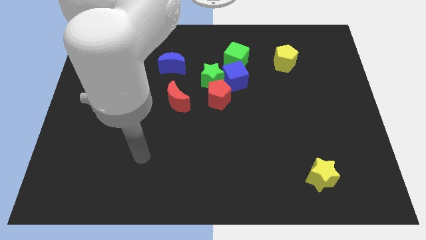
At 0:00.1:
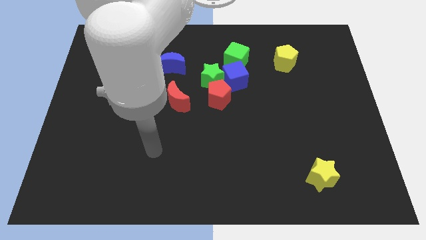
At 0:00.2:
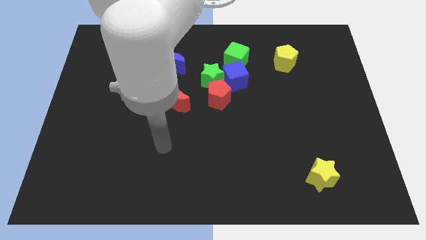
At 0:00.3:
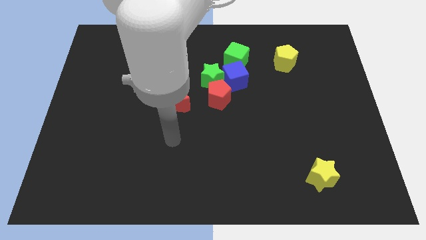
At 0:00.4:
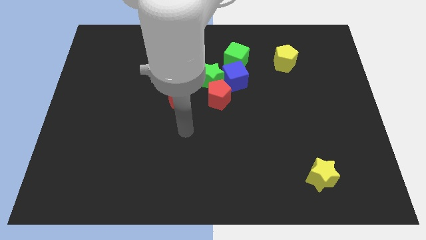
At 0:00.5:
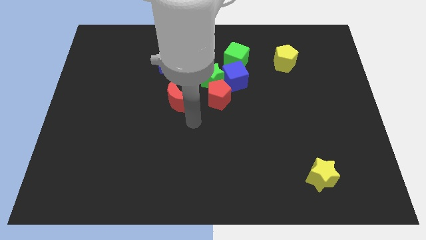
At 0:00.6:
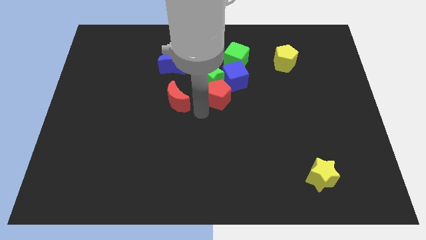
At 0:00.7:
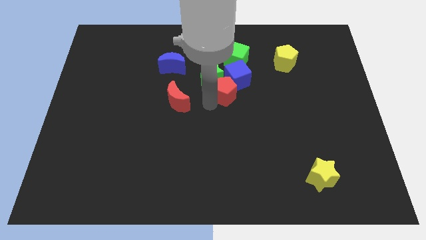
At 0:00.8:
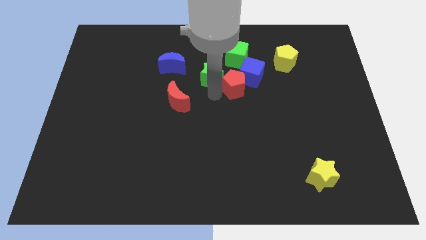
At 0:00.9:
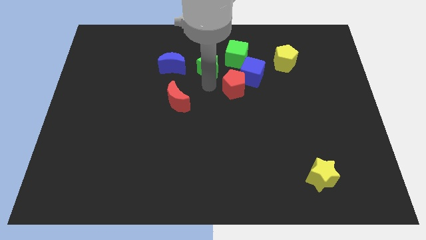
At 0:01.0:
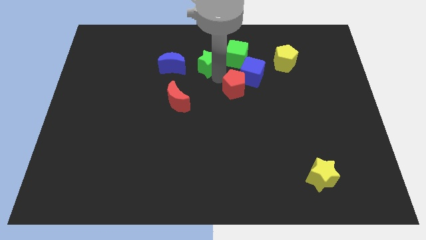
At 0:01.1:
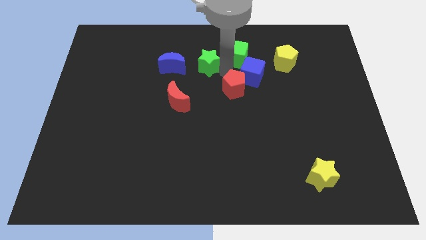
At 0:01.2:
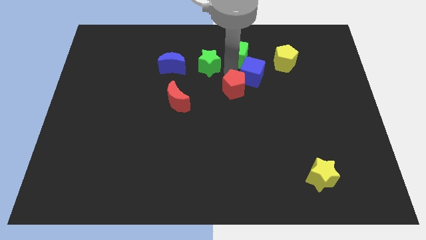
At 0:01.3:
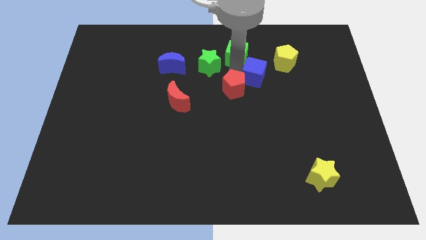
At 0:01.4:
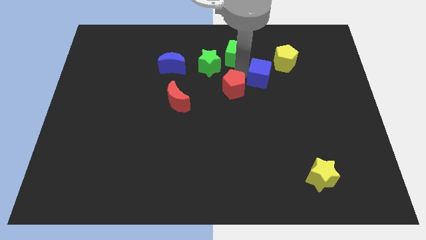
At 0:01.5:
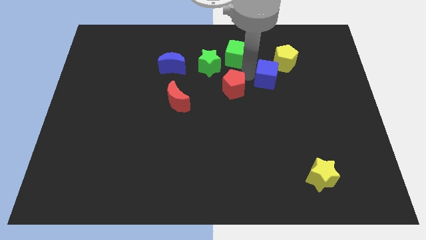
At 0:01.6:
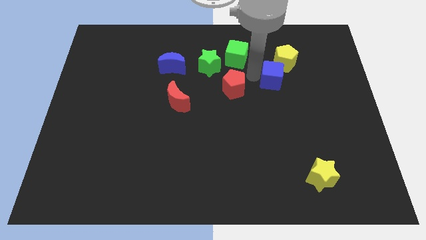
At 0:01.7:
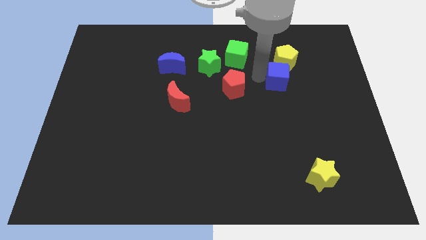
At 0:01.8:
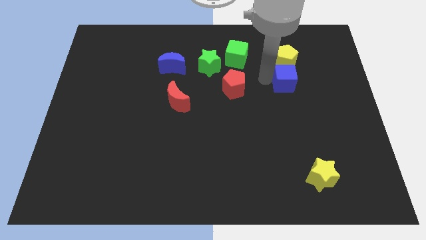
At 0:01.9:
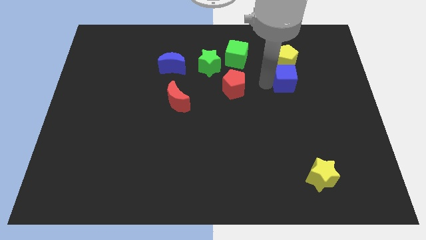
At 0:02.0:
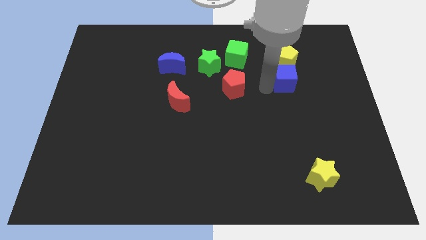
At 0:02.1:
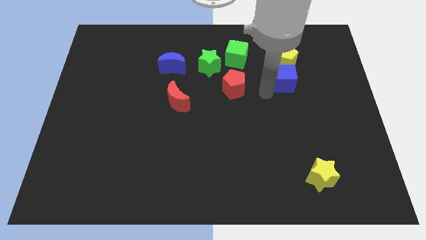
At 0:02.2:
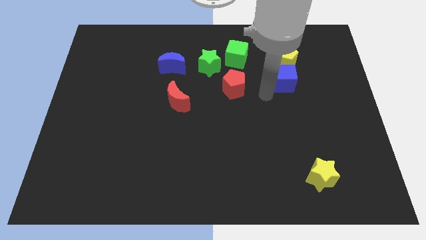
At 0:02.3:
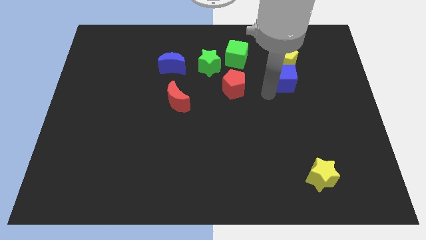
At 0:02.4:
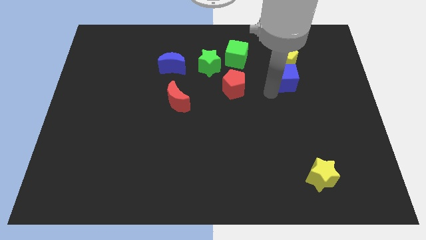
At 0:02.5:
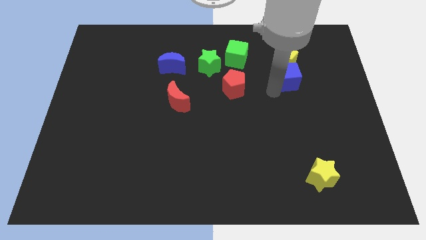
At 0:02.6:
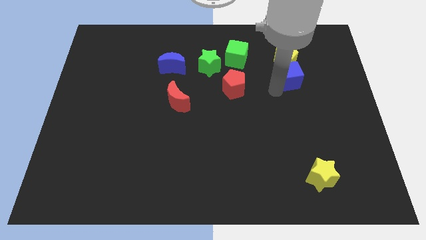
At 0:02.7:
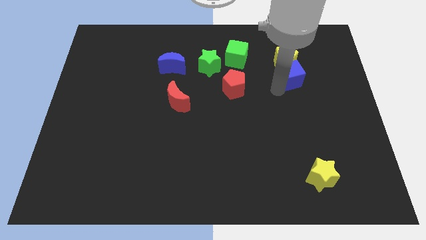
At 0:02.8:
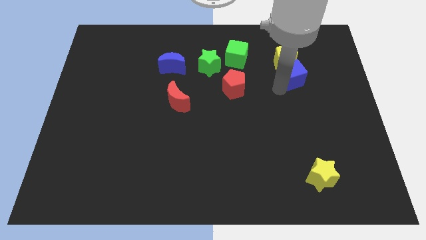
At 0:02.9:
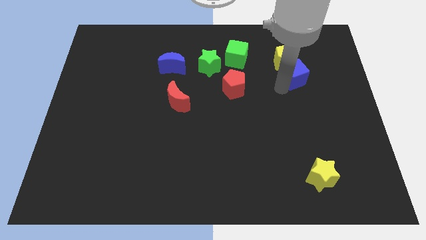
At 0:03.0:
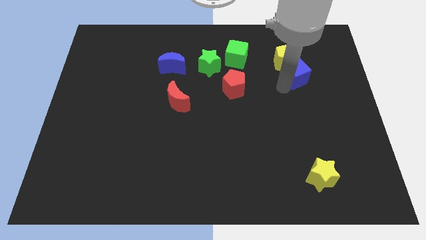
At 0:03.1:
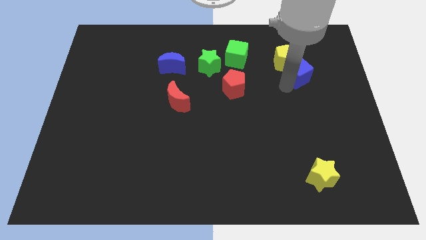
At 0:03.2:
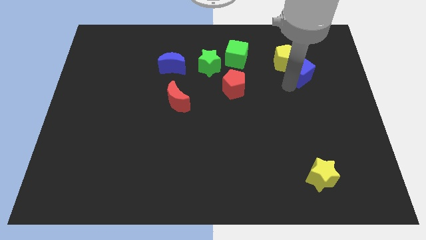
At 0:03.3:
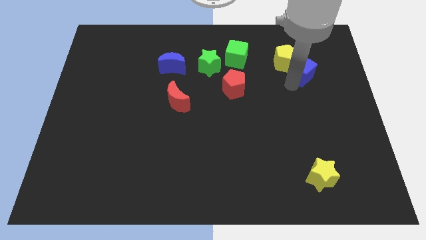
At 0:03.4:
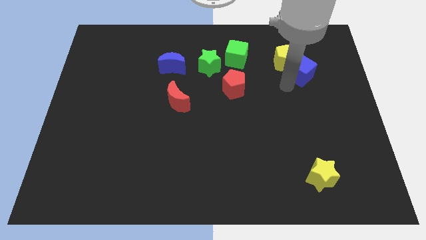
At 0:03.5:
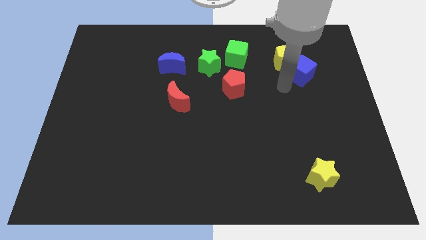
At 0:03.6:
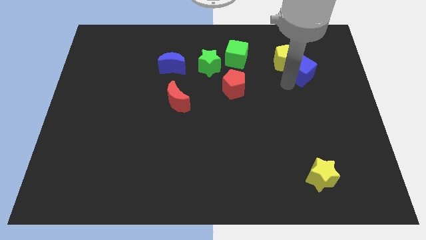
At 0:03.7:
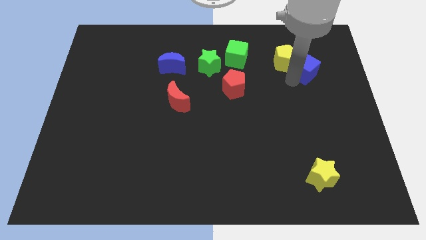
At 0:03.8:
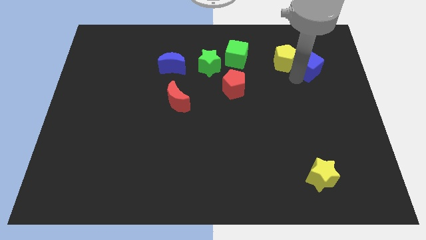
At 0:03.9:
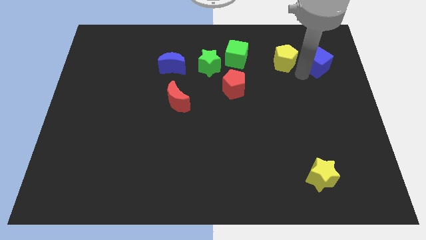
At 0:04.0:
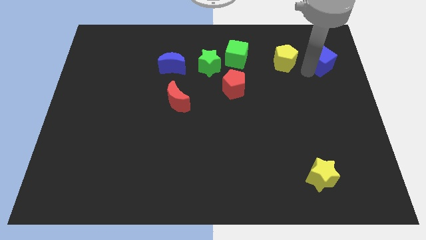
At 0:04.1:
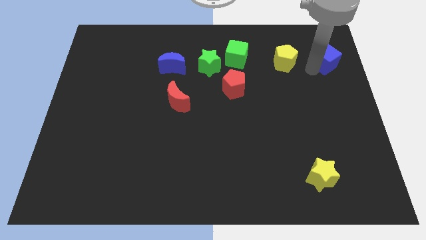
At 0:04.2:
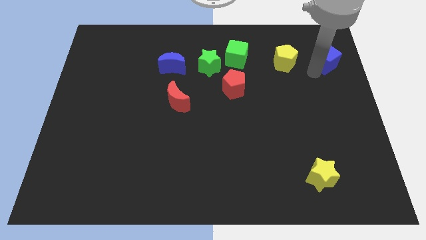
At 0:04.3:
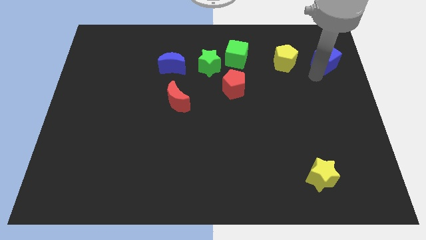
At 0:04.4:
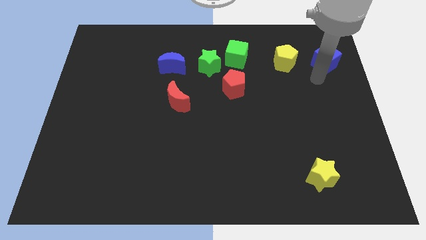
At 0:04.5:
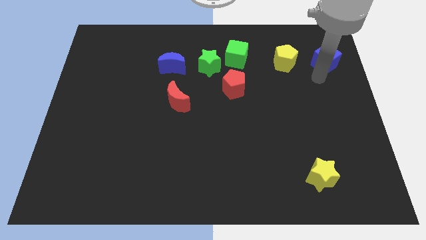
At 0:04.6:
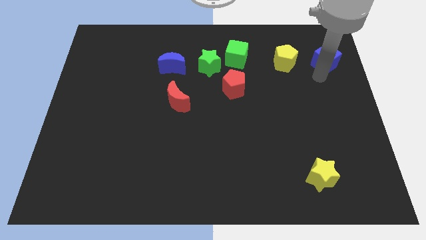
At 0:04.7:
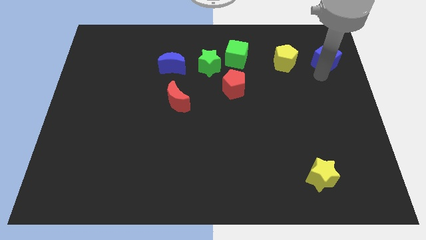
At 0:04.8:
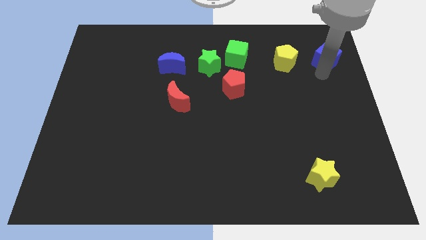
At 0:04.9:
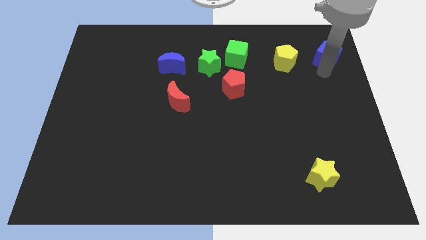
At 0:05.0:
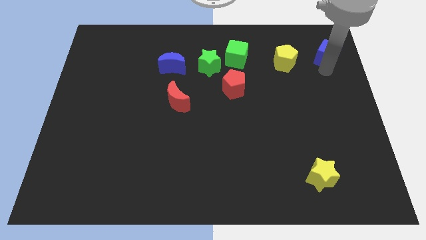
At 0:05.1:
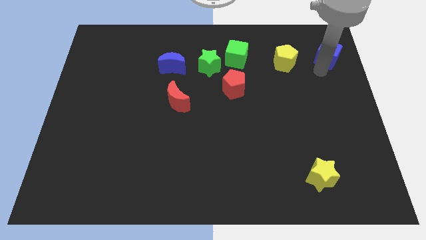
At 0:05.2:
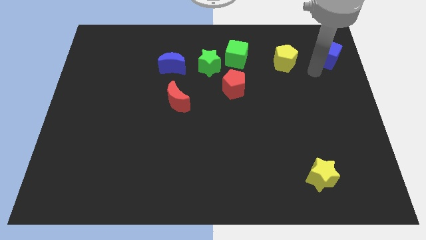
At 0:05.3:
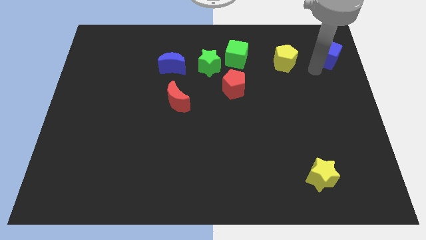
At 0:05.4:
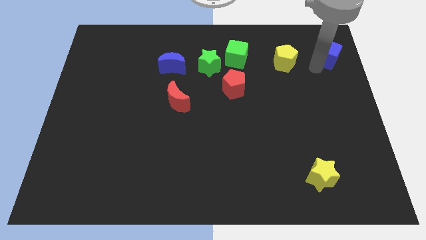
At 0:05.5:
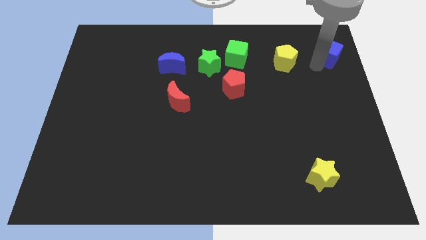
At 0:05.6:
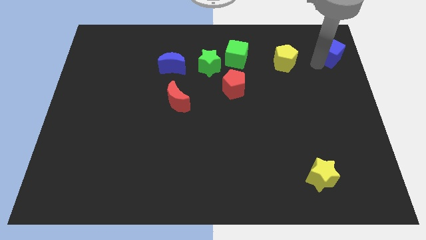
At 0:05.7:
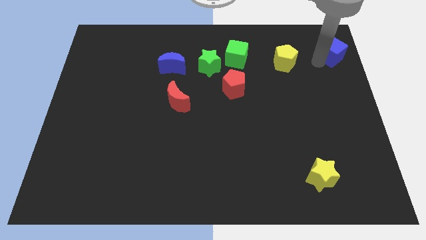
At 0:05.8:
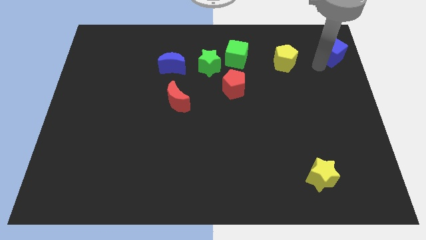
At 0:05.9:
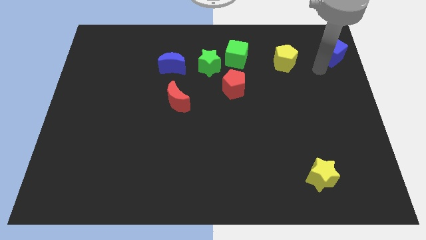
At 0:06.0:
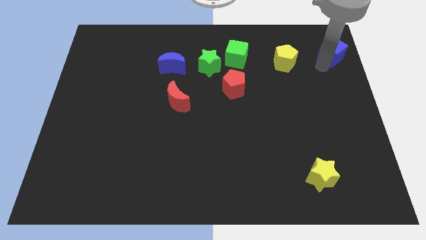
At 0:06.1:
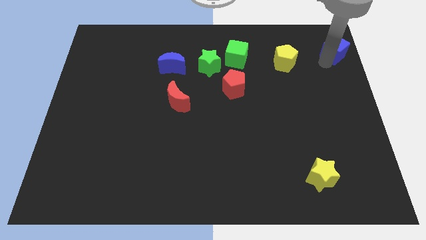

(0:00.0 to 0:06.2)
slide the blue cube to the top right of the board

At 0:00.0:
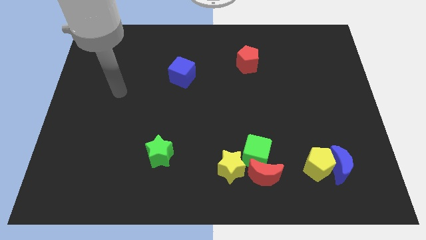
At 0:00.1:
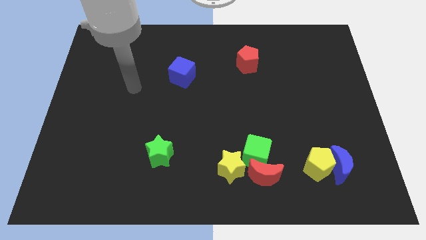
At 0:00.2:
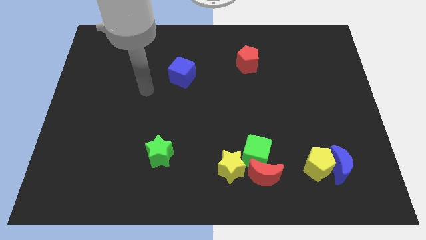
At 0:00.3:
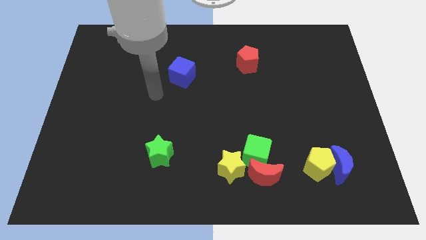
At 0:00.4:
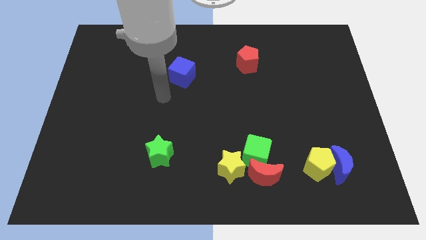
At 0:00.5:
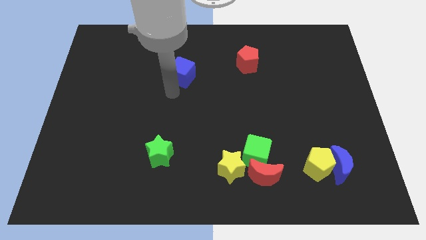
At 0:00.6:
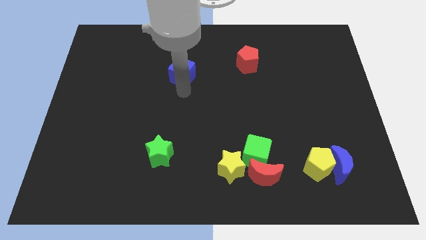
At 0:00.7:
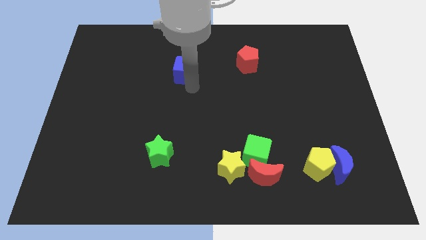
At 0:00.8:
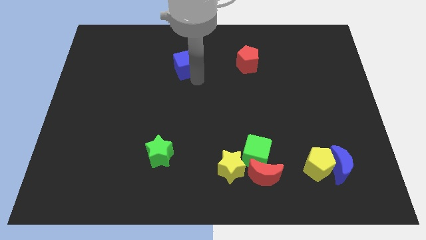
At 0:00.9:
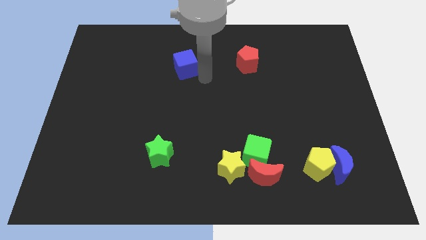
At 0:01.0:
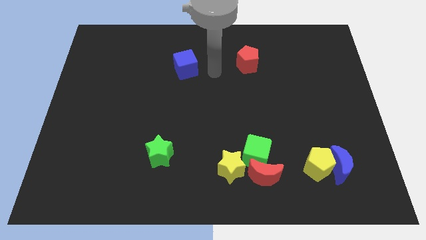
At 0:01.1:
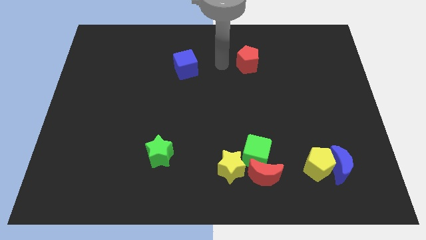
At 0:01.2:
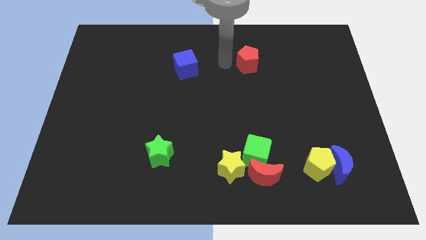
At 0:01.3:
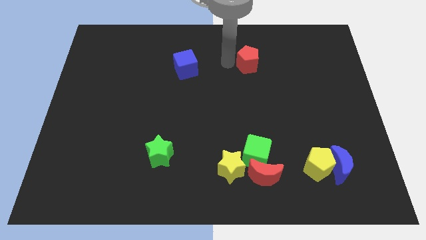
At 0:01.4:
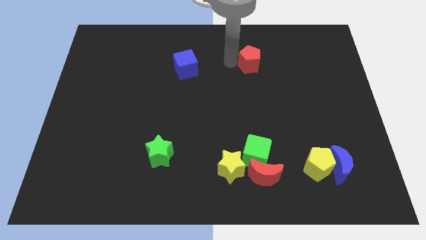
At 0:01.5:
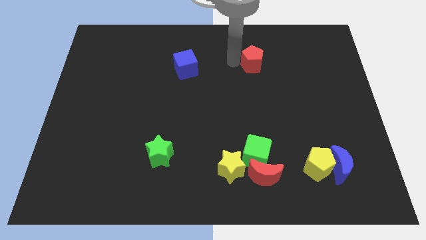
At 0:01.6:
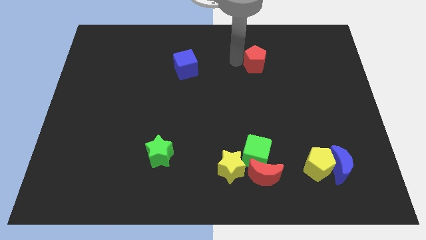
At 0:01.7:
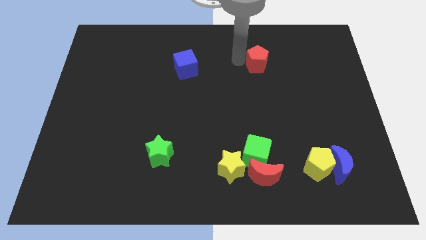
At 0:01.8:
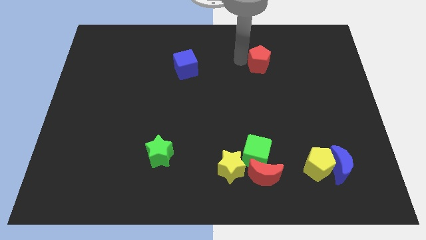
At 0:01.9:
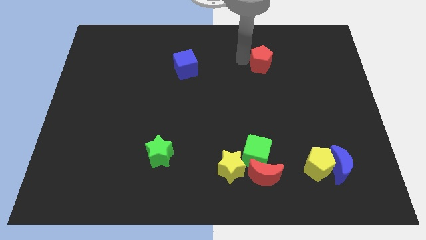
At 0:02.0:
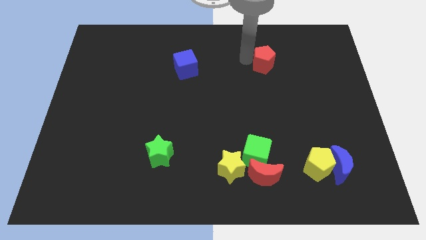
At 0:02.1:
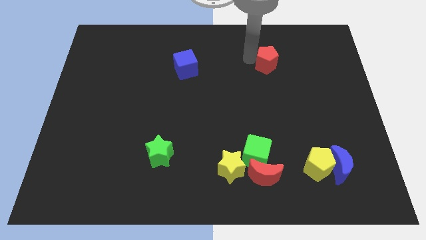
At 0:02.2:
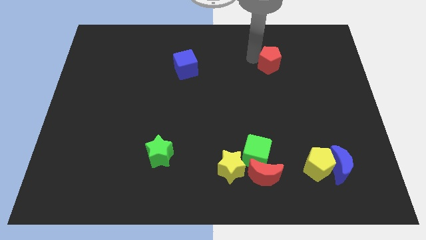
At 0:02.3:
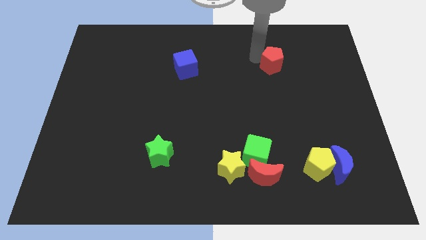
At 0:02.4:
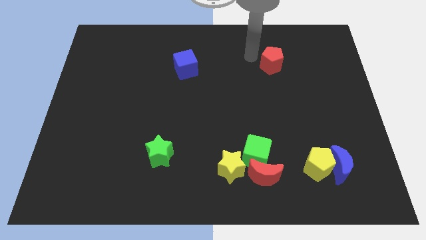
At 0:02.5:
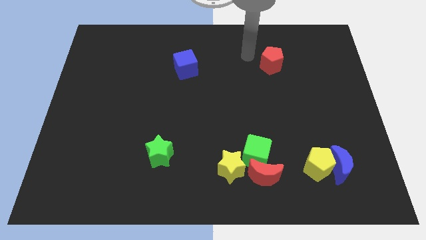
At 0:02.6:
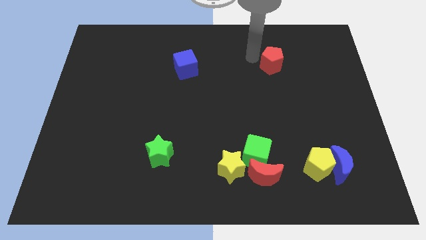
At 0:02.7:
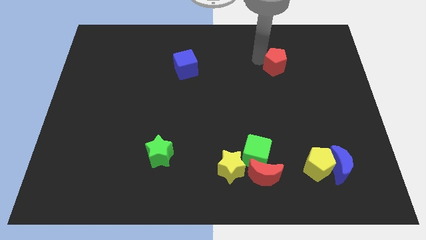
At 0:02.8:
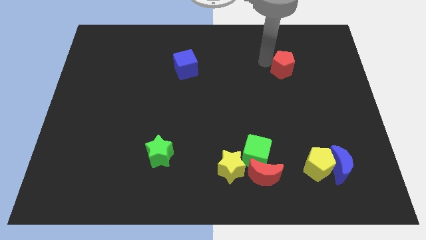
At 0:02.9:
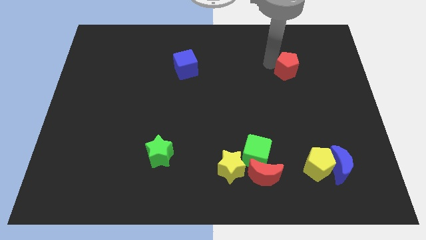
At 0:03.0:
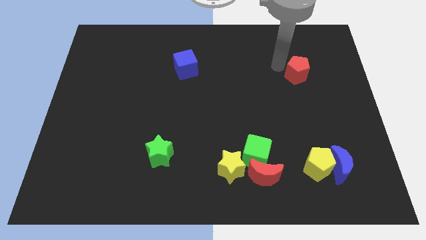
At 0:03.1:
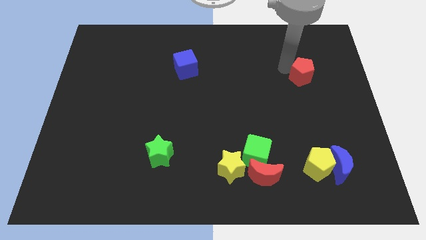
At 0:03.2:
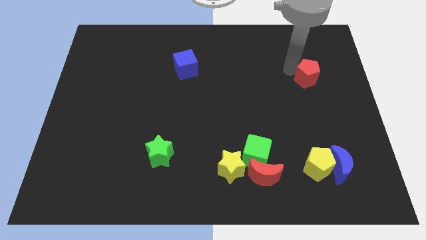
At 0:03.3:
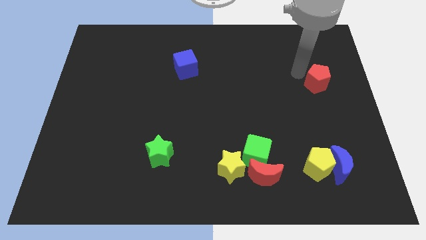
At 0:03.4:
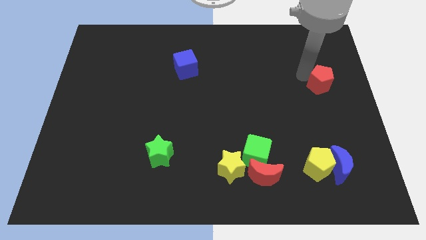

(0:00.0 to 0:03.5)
push the red pentagon to the center right
